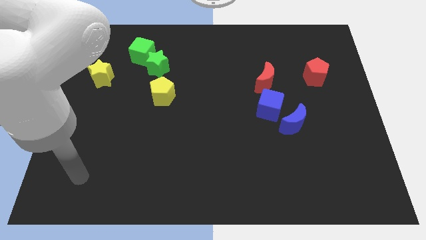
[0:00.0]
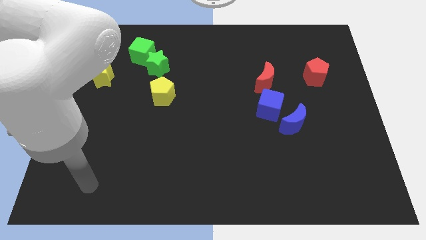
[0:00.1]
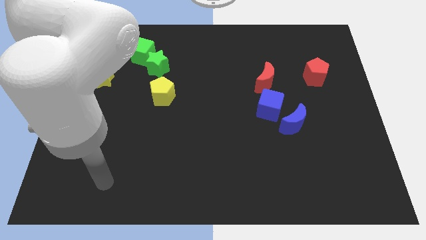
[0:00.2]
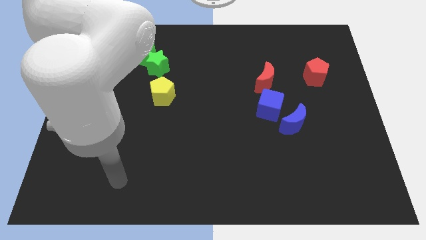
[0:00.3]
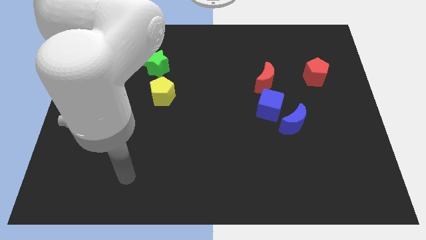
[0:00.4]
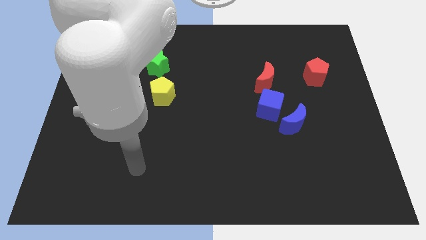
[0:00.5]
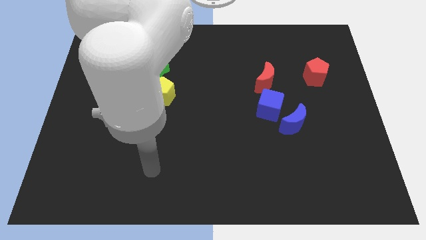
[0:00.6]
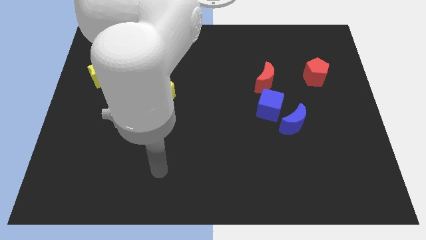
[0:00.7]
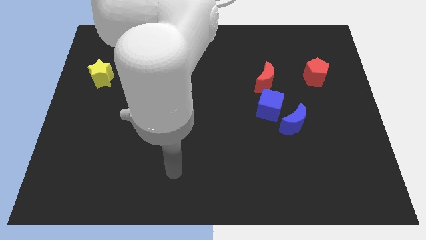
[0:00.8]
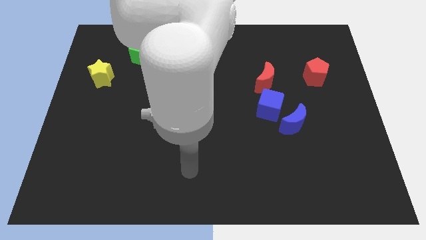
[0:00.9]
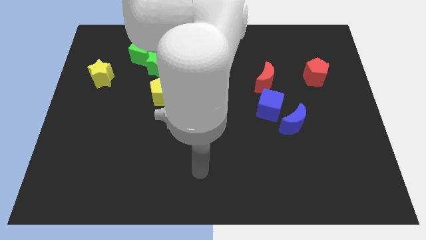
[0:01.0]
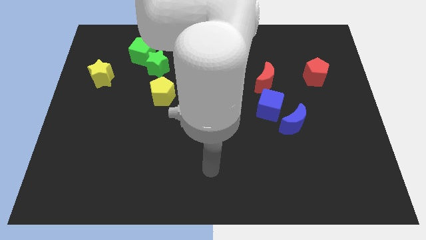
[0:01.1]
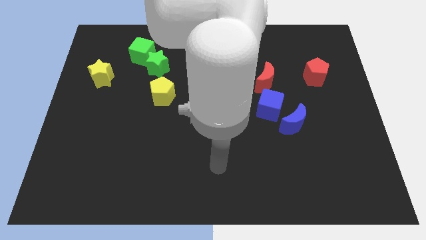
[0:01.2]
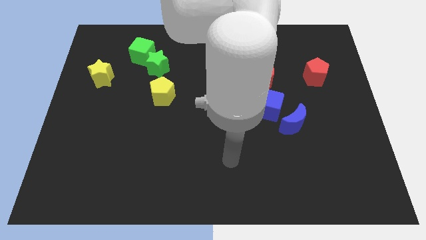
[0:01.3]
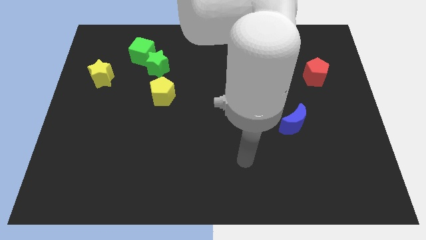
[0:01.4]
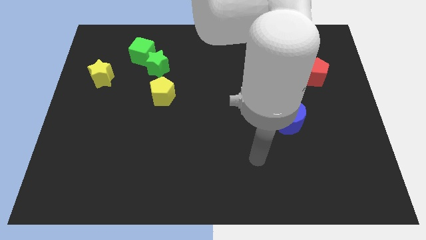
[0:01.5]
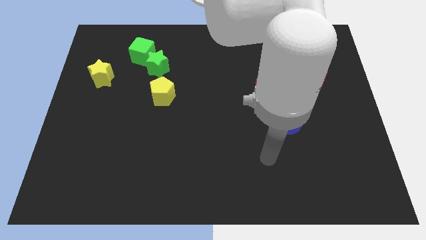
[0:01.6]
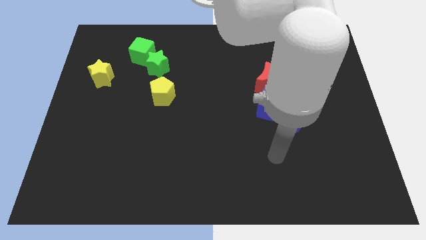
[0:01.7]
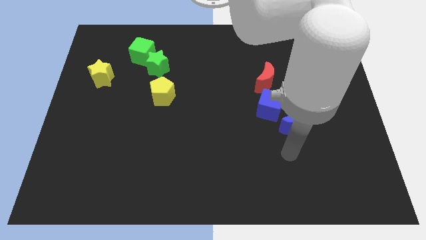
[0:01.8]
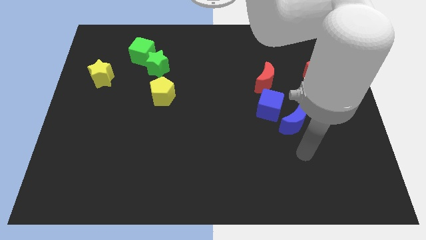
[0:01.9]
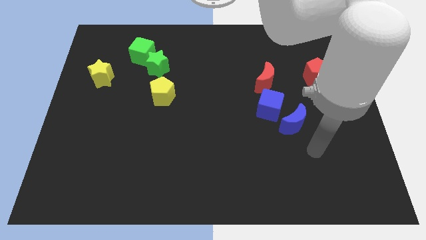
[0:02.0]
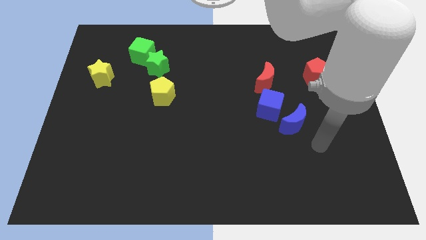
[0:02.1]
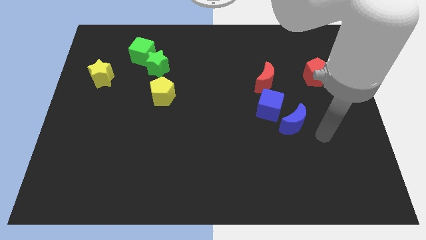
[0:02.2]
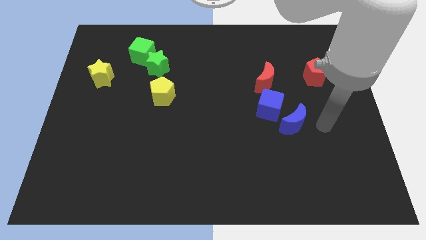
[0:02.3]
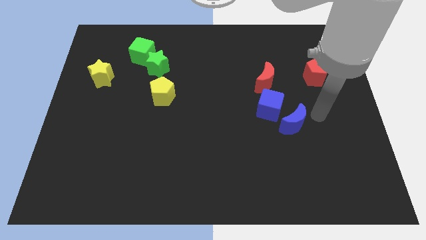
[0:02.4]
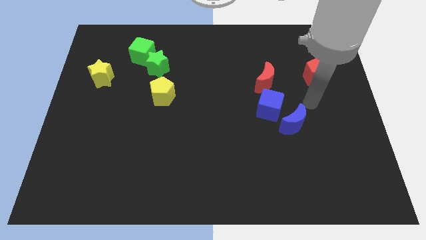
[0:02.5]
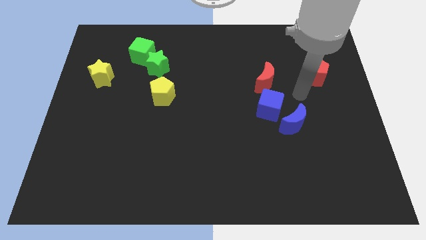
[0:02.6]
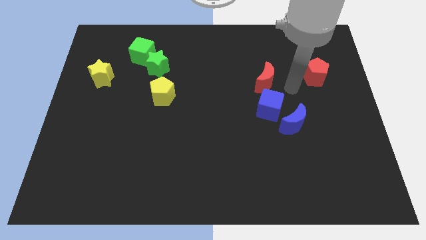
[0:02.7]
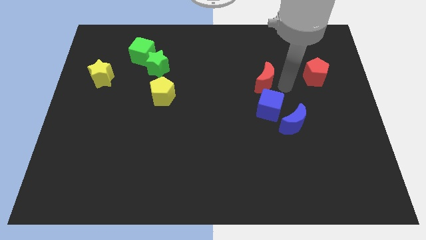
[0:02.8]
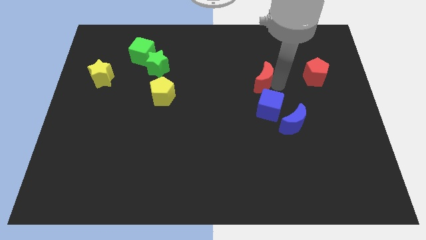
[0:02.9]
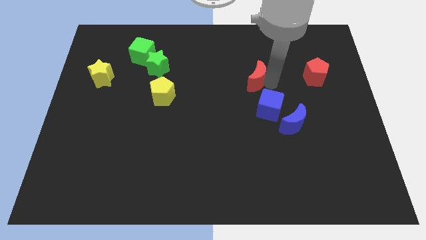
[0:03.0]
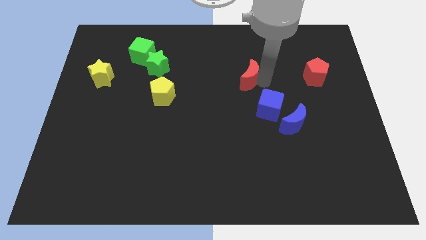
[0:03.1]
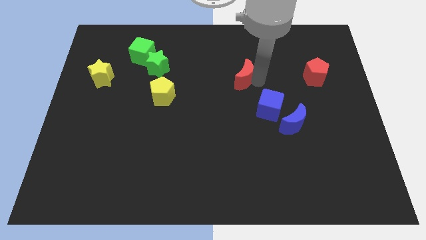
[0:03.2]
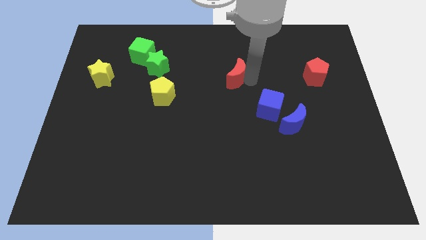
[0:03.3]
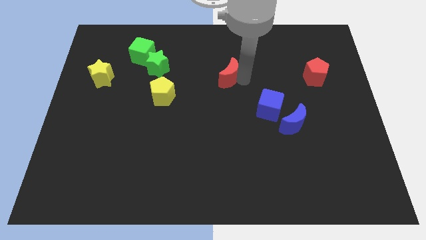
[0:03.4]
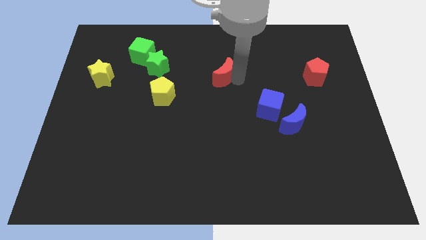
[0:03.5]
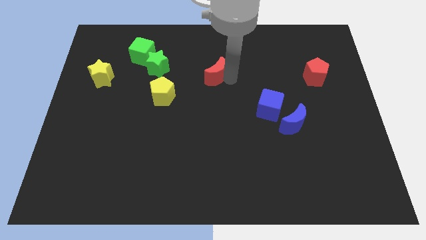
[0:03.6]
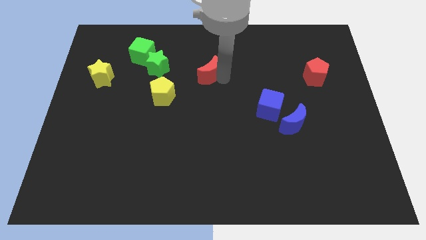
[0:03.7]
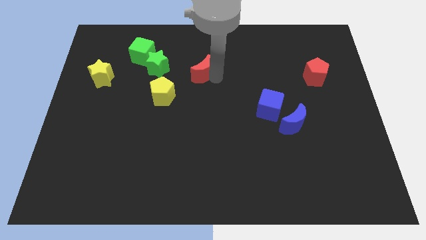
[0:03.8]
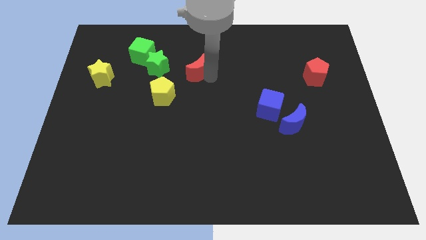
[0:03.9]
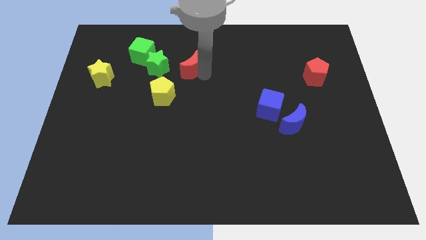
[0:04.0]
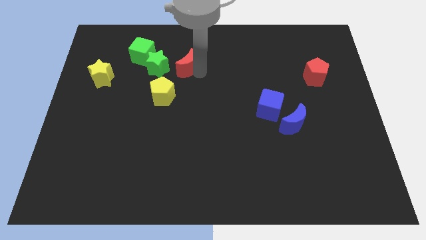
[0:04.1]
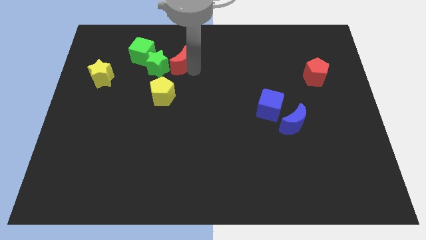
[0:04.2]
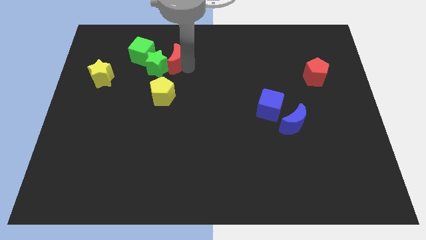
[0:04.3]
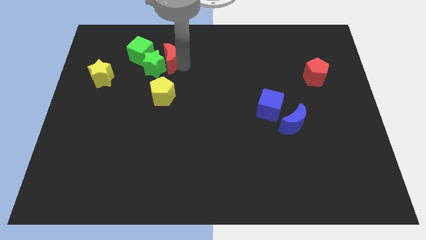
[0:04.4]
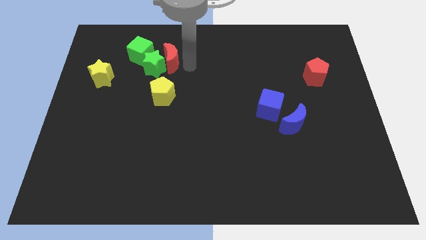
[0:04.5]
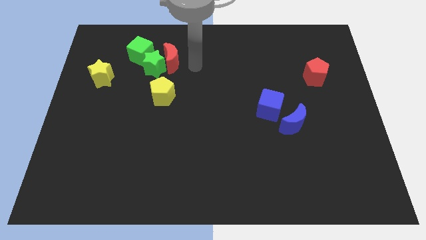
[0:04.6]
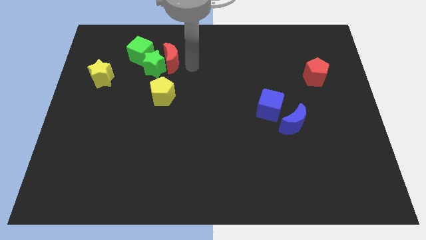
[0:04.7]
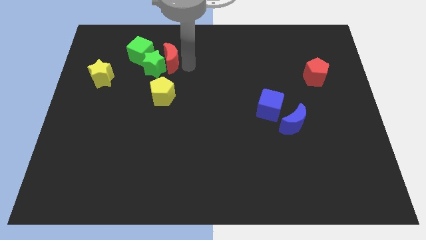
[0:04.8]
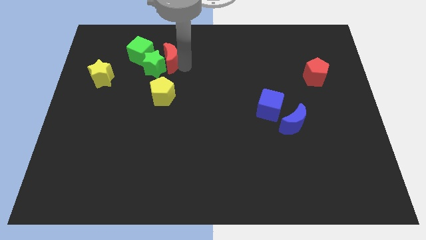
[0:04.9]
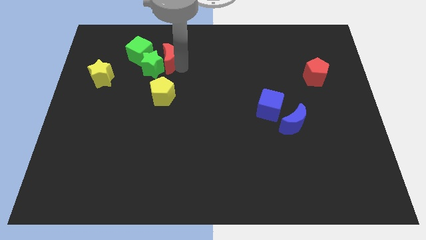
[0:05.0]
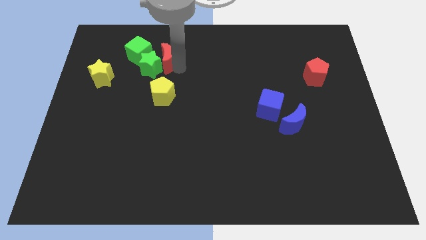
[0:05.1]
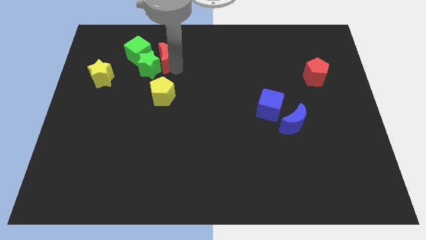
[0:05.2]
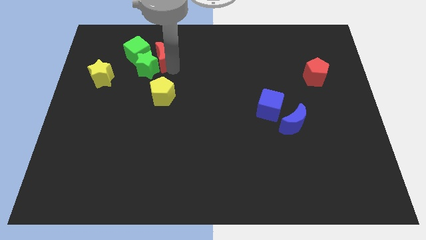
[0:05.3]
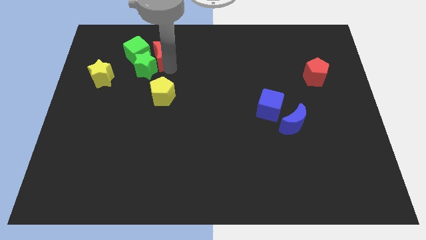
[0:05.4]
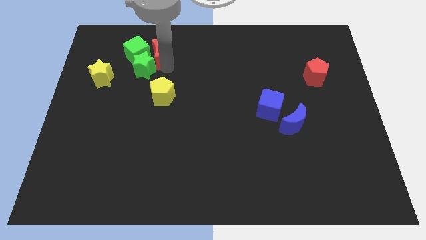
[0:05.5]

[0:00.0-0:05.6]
put the red moon to the green cube

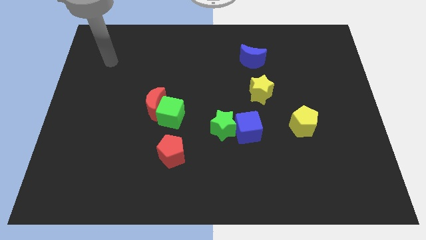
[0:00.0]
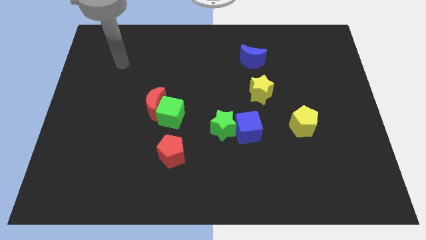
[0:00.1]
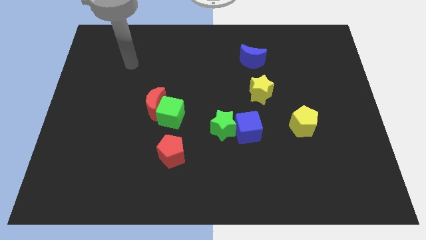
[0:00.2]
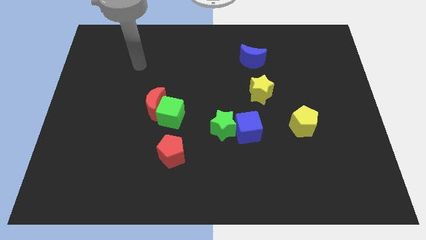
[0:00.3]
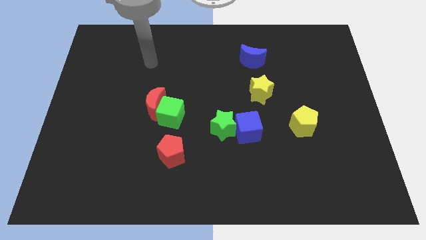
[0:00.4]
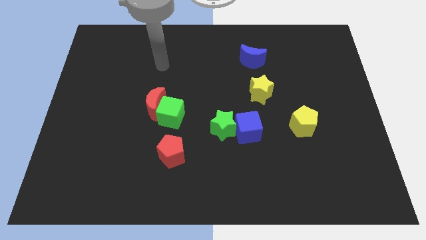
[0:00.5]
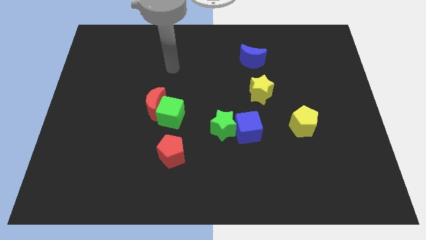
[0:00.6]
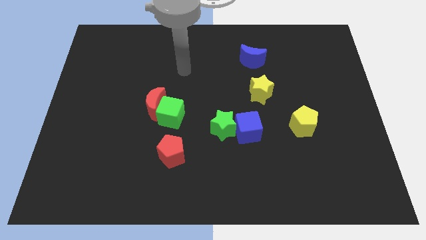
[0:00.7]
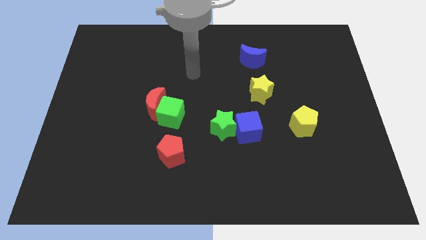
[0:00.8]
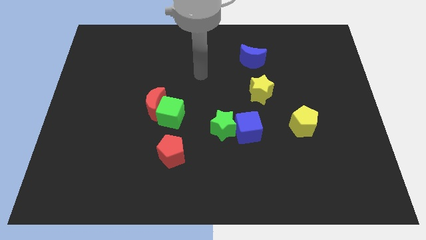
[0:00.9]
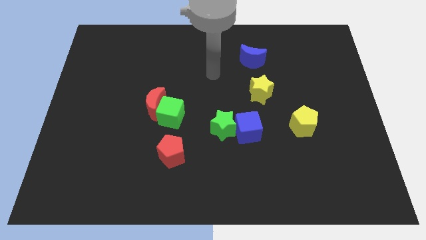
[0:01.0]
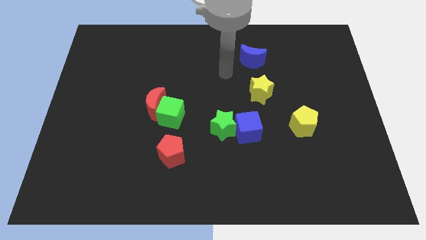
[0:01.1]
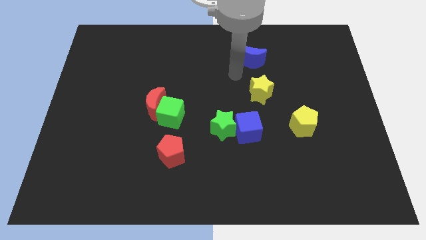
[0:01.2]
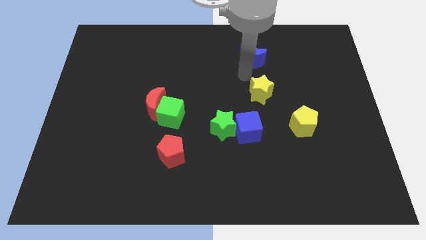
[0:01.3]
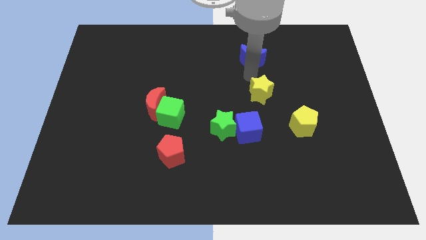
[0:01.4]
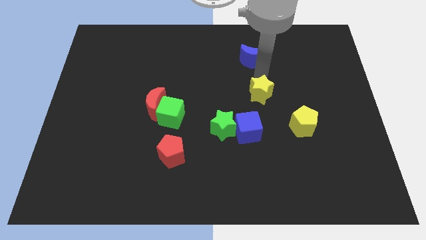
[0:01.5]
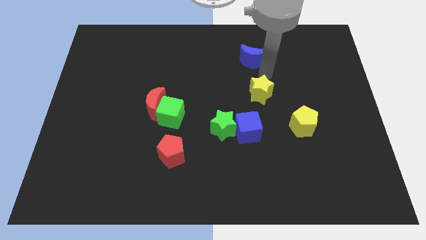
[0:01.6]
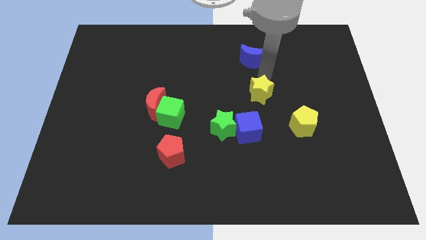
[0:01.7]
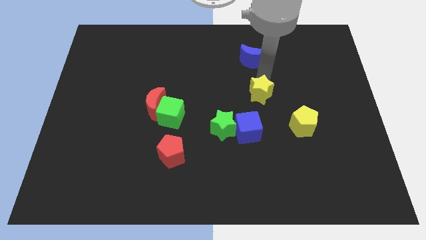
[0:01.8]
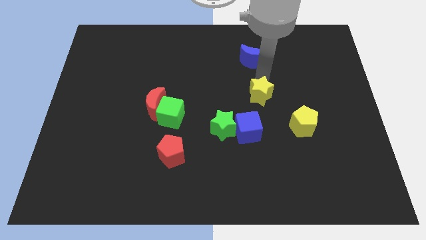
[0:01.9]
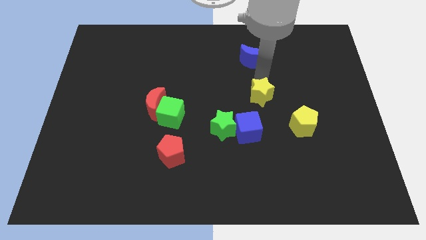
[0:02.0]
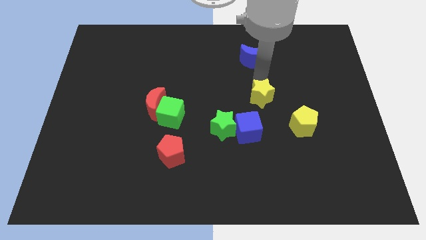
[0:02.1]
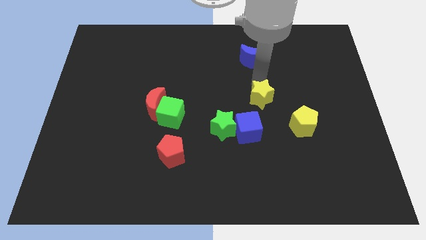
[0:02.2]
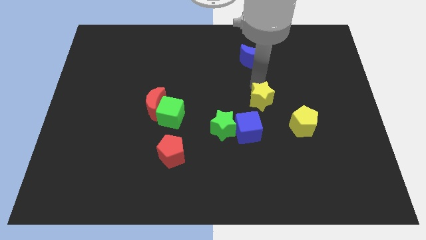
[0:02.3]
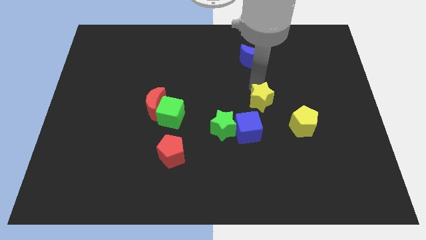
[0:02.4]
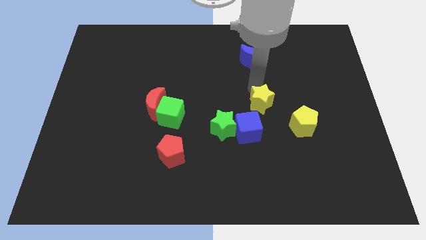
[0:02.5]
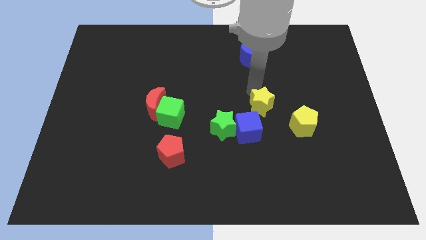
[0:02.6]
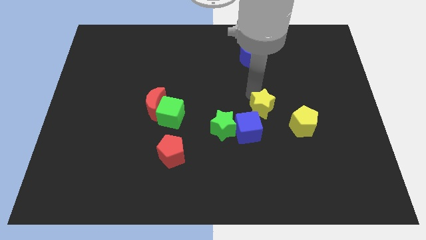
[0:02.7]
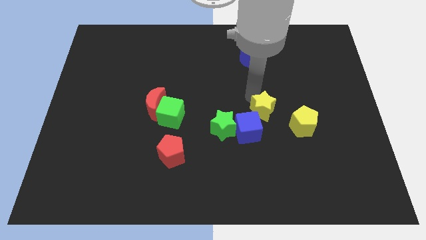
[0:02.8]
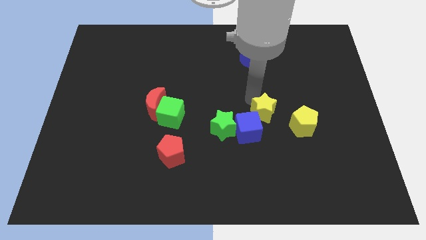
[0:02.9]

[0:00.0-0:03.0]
push the yellow star to the blue cube
